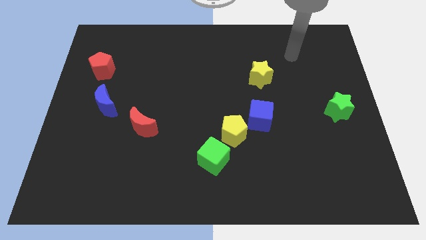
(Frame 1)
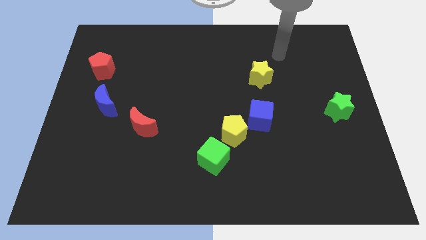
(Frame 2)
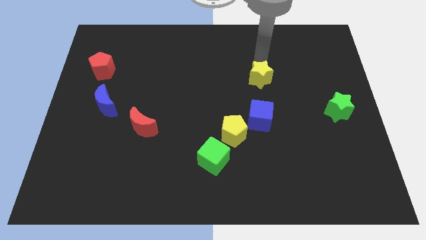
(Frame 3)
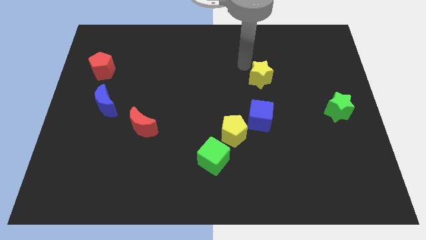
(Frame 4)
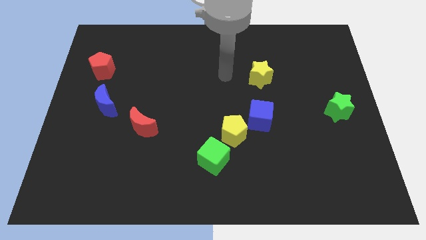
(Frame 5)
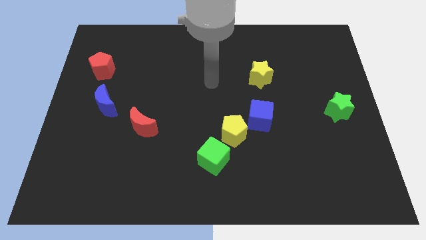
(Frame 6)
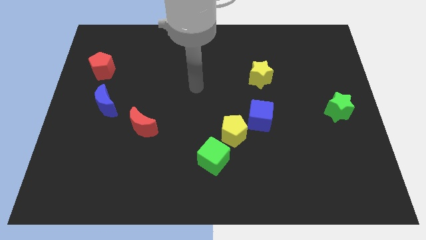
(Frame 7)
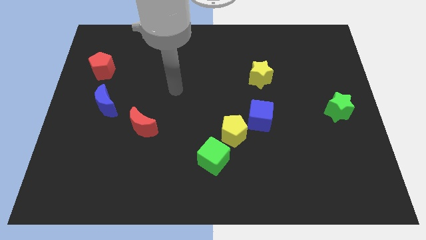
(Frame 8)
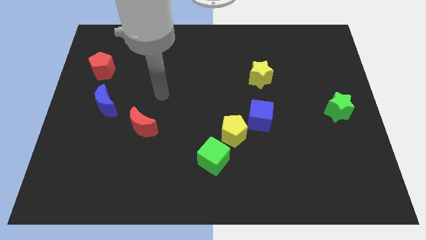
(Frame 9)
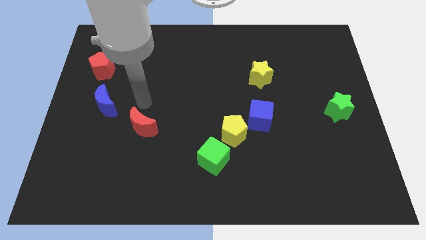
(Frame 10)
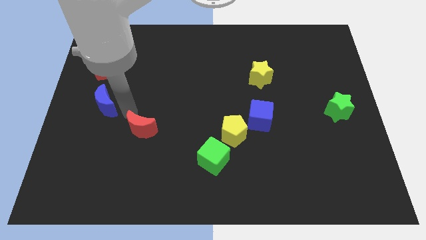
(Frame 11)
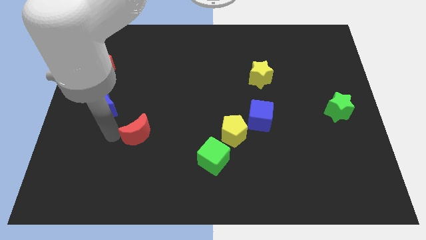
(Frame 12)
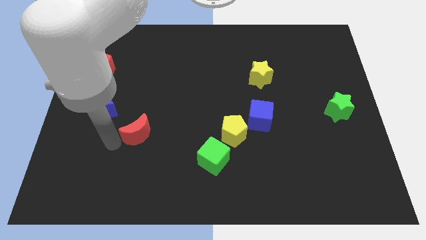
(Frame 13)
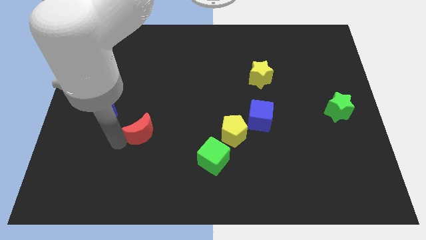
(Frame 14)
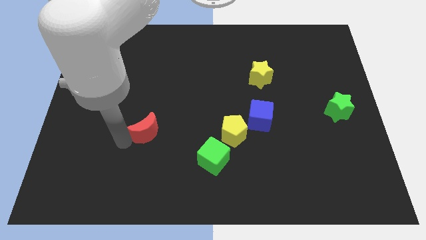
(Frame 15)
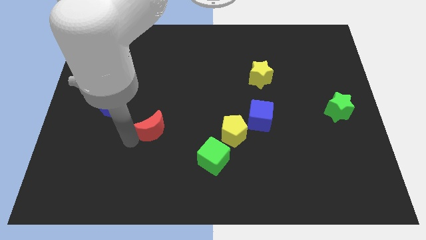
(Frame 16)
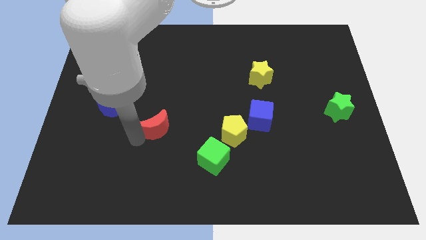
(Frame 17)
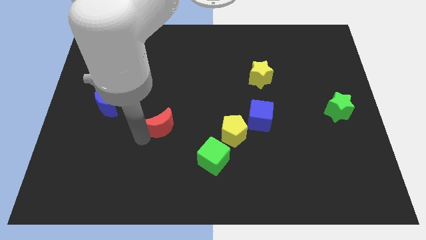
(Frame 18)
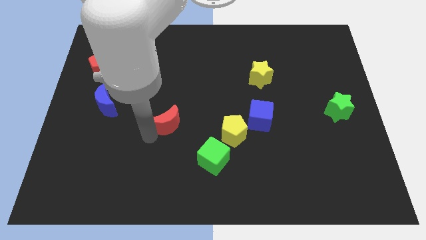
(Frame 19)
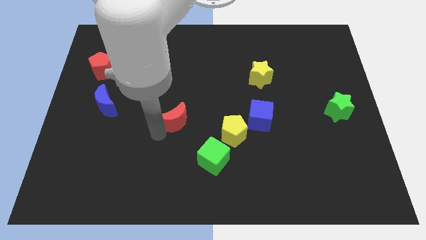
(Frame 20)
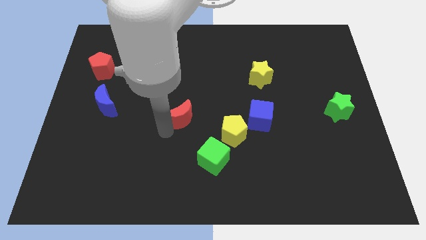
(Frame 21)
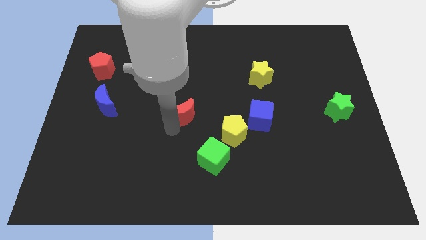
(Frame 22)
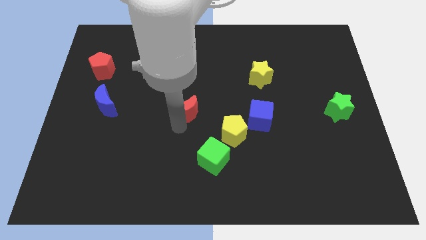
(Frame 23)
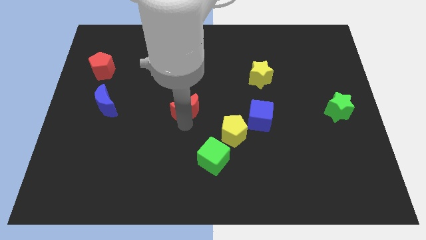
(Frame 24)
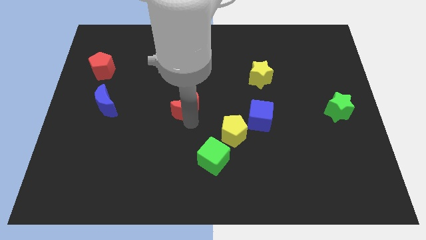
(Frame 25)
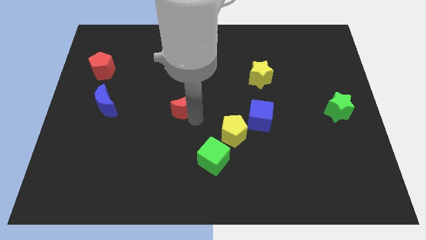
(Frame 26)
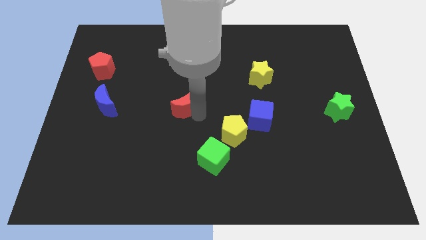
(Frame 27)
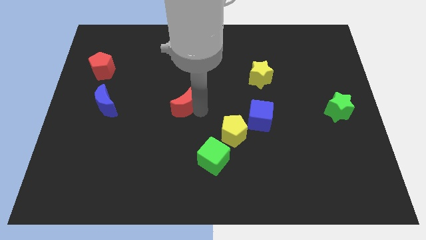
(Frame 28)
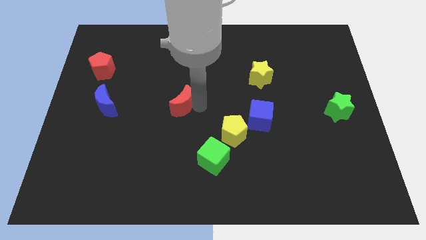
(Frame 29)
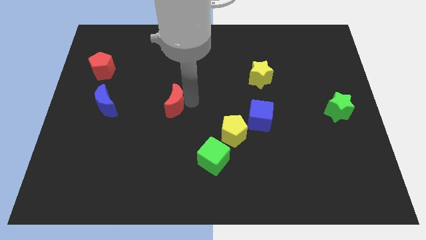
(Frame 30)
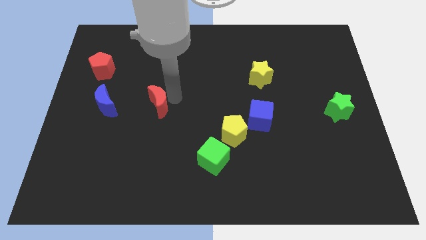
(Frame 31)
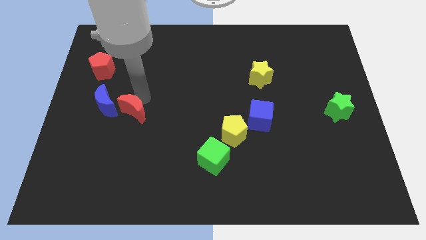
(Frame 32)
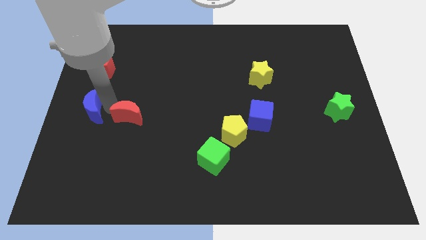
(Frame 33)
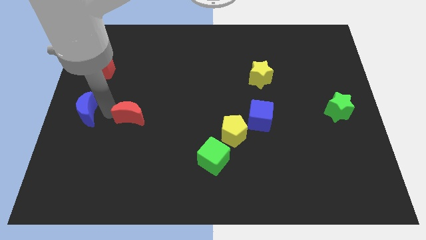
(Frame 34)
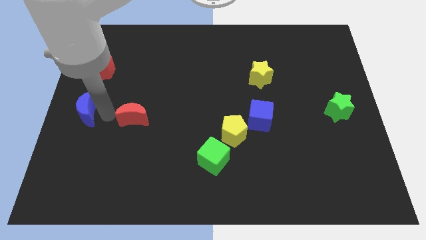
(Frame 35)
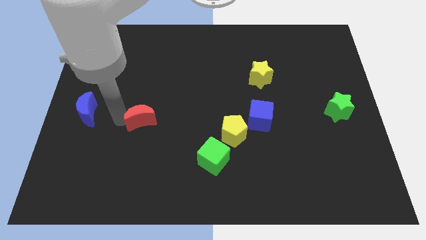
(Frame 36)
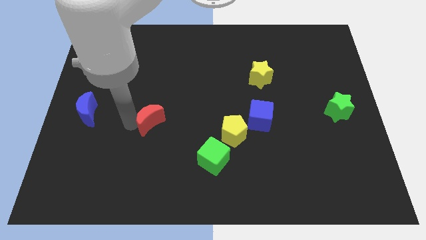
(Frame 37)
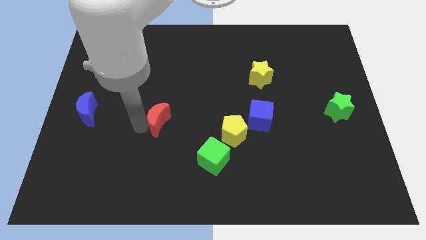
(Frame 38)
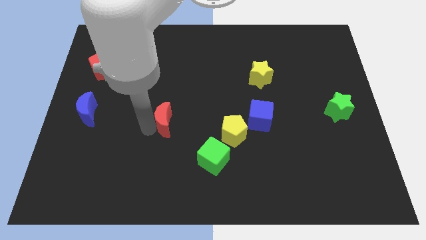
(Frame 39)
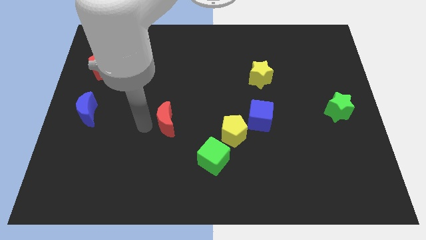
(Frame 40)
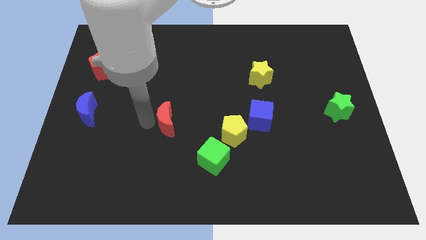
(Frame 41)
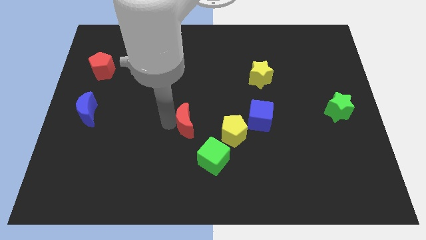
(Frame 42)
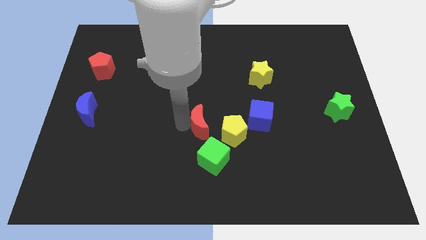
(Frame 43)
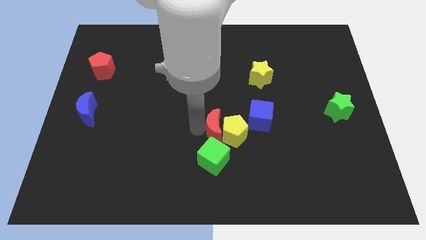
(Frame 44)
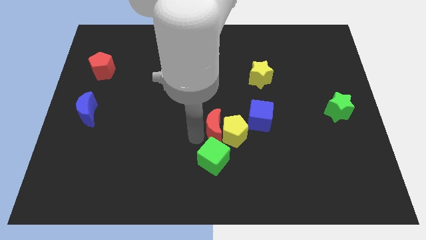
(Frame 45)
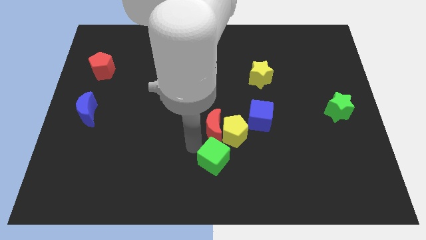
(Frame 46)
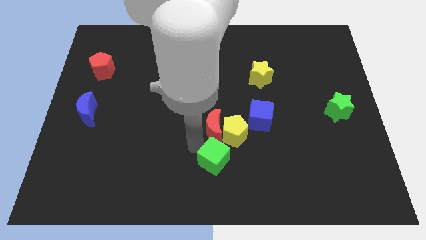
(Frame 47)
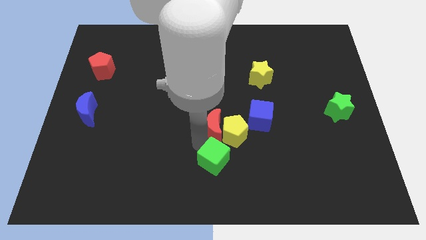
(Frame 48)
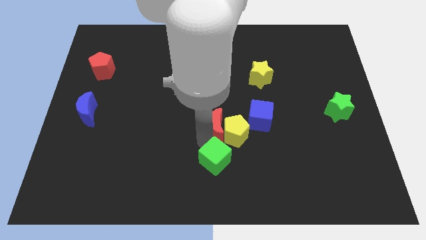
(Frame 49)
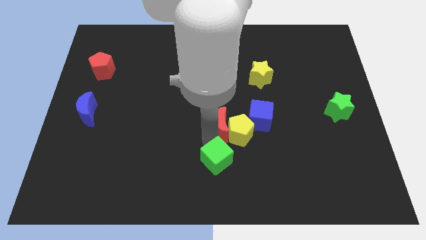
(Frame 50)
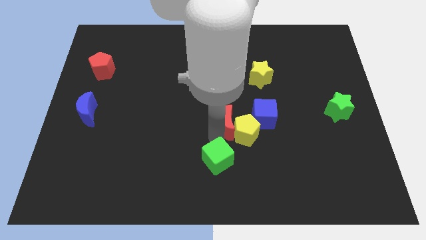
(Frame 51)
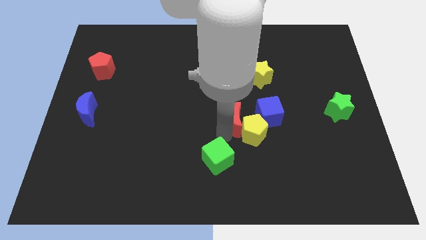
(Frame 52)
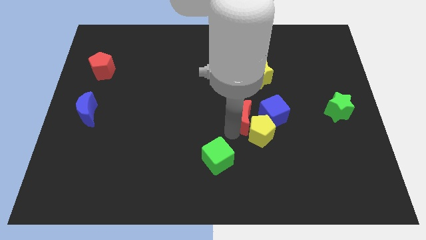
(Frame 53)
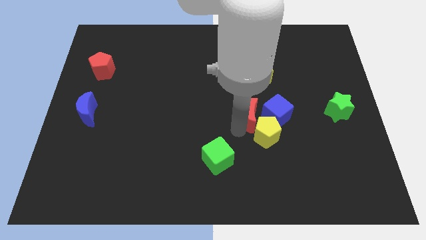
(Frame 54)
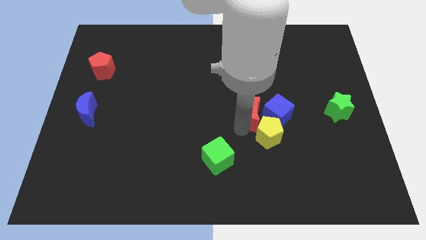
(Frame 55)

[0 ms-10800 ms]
slide the red moon next to the blue cube

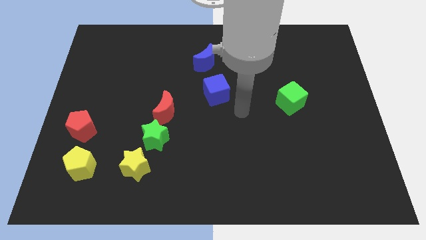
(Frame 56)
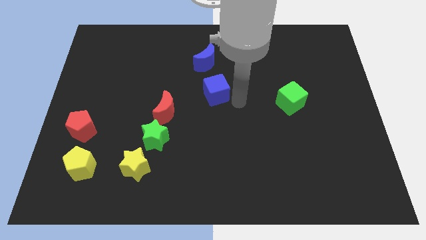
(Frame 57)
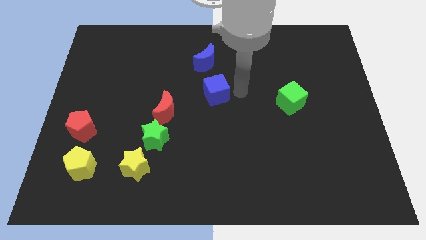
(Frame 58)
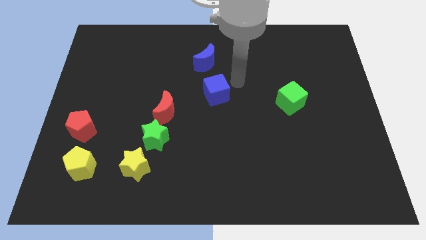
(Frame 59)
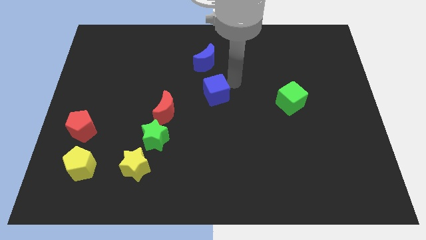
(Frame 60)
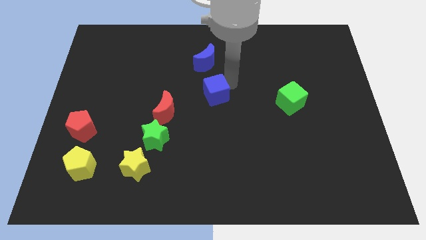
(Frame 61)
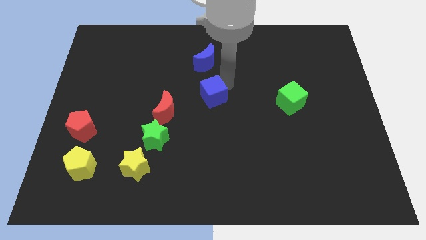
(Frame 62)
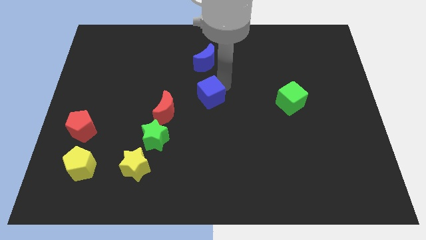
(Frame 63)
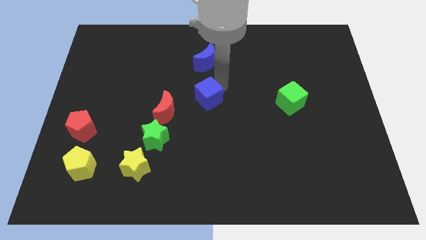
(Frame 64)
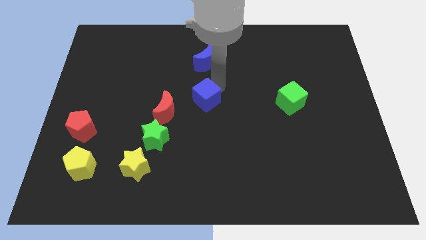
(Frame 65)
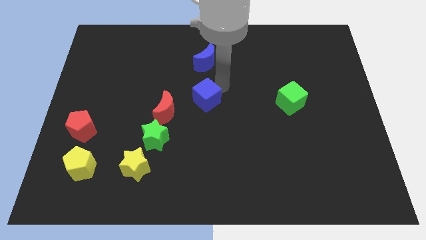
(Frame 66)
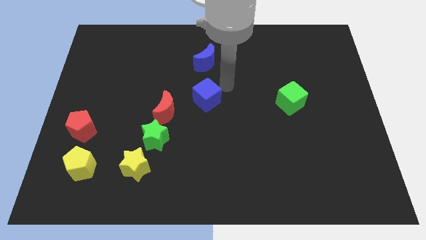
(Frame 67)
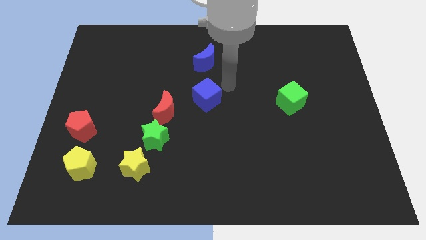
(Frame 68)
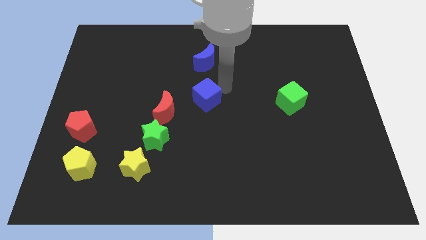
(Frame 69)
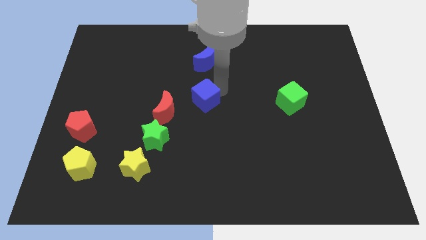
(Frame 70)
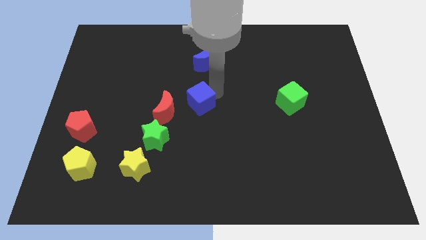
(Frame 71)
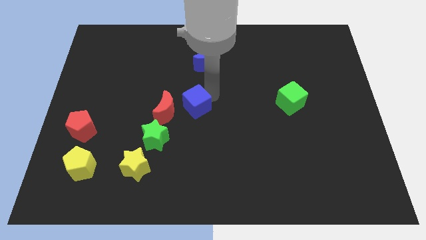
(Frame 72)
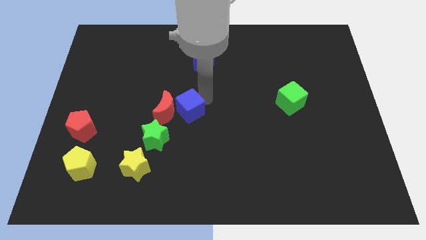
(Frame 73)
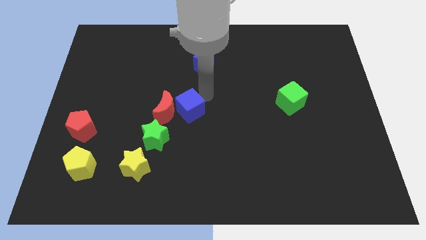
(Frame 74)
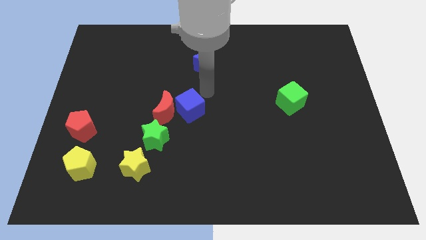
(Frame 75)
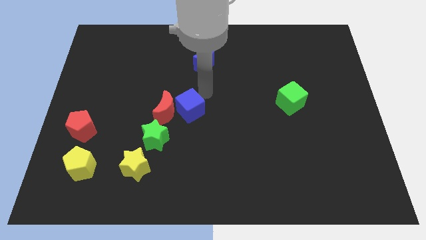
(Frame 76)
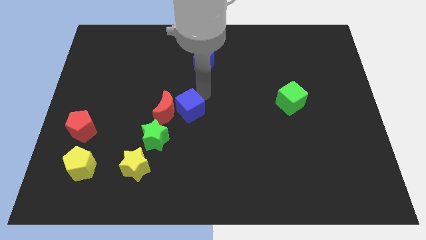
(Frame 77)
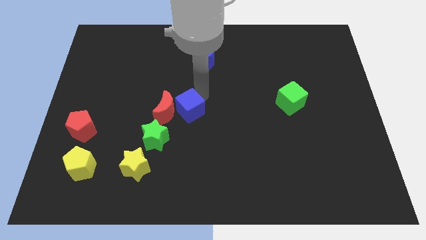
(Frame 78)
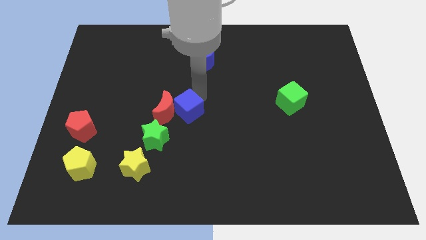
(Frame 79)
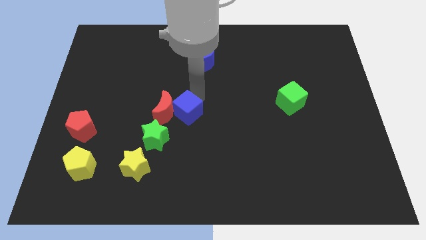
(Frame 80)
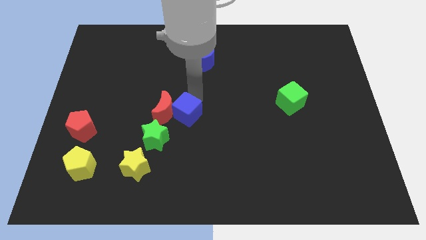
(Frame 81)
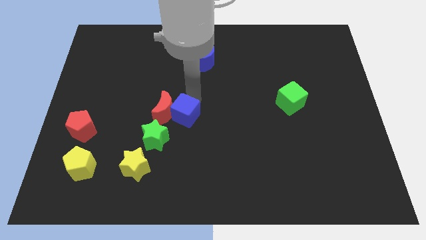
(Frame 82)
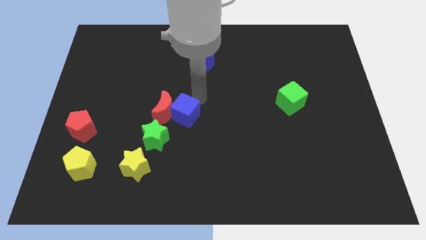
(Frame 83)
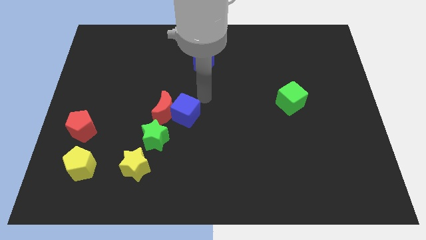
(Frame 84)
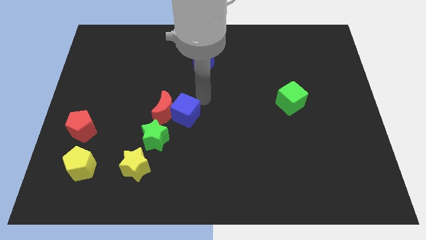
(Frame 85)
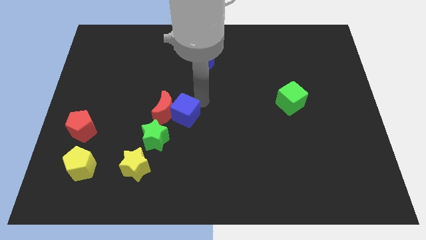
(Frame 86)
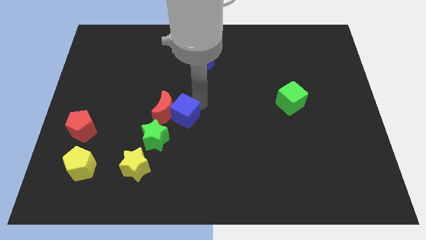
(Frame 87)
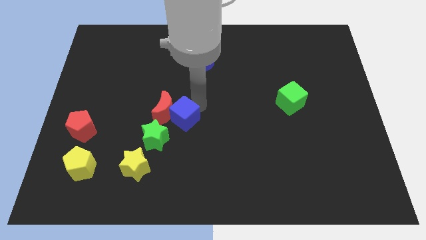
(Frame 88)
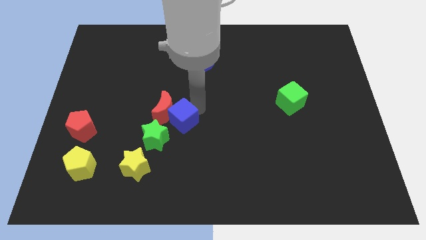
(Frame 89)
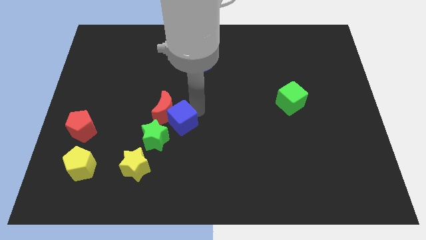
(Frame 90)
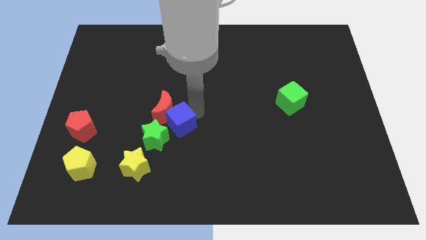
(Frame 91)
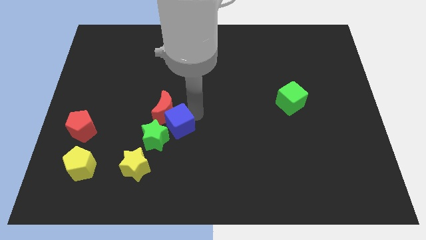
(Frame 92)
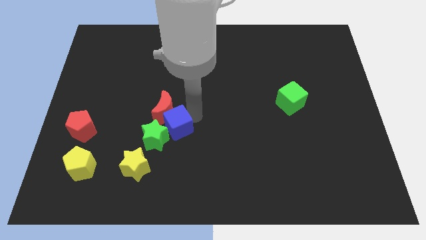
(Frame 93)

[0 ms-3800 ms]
put the blue cube close to the green star
